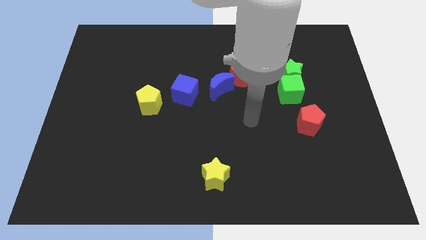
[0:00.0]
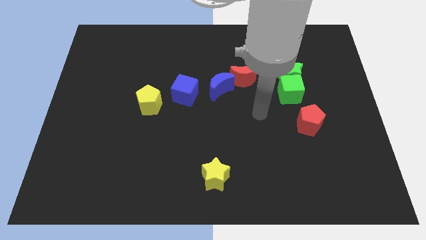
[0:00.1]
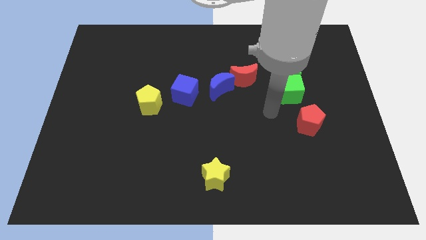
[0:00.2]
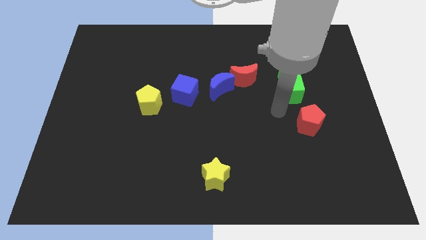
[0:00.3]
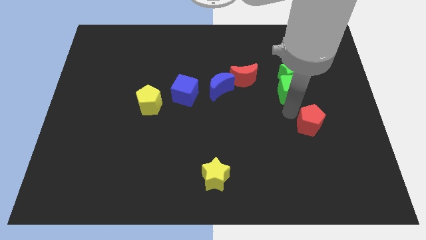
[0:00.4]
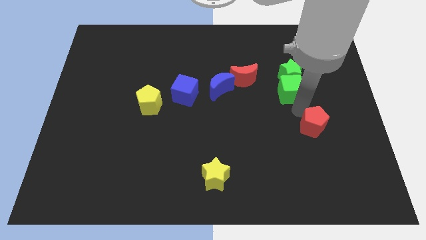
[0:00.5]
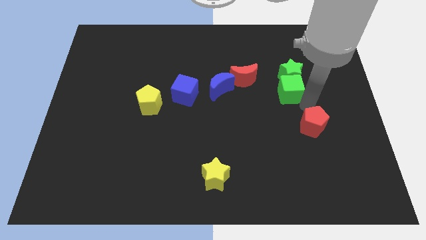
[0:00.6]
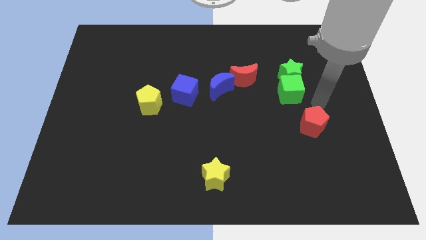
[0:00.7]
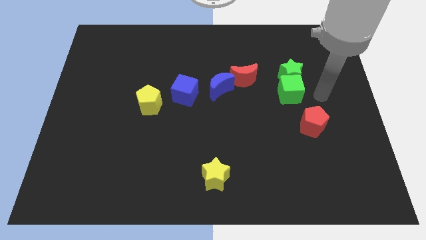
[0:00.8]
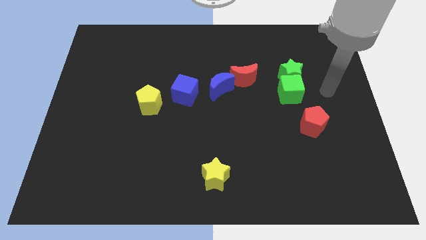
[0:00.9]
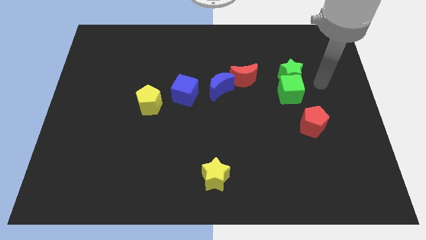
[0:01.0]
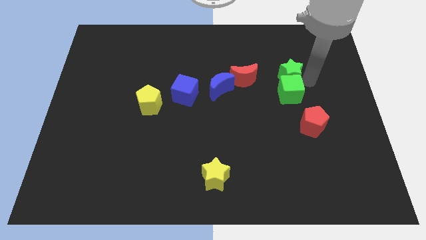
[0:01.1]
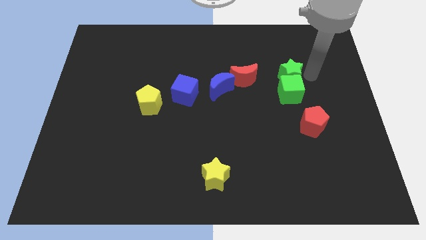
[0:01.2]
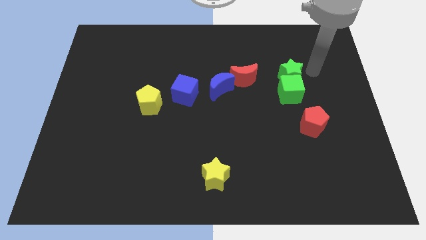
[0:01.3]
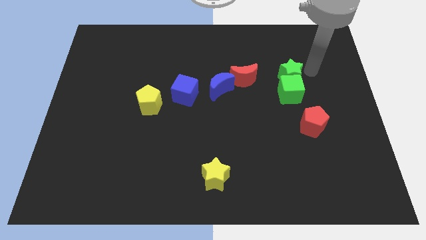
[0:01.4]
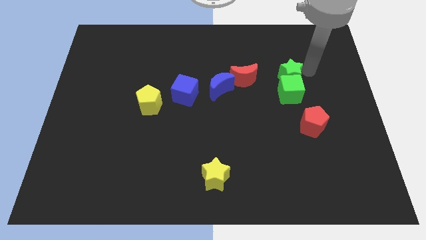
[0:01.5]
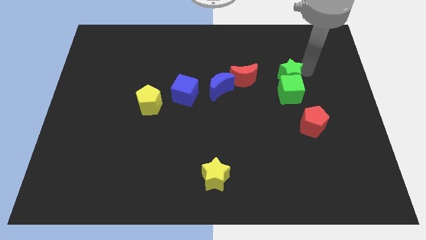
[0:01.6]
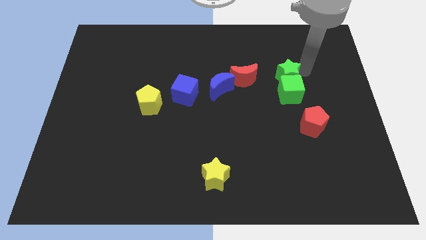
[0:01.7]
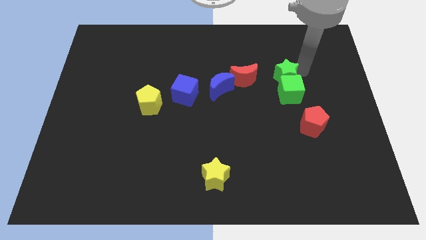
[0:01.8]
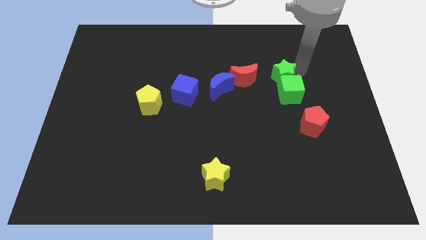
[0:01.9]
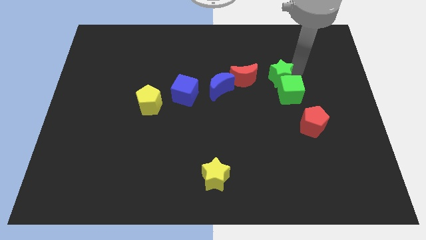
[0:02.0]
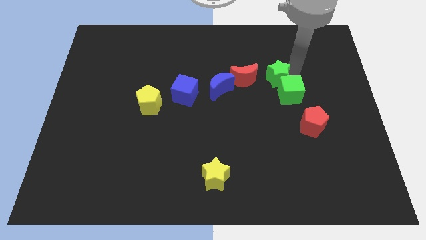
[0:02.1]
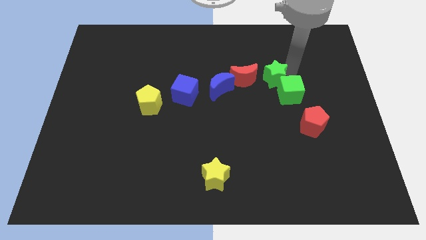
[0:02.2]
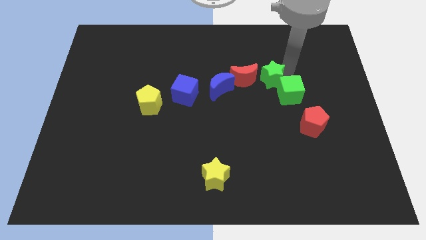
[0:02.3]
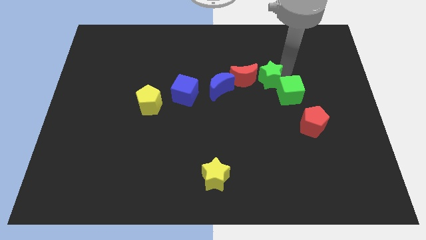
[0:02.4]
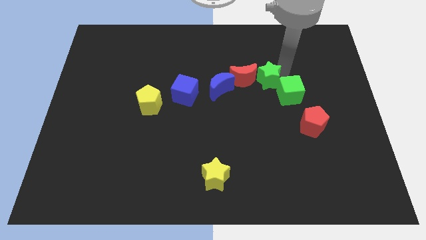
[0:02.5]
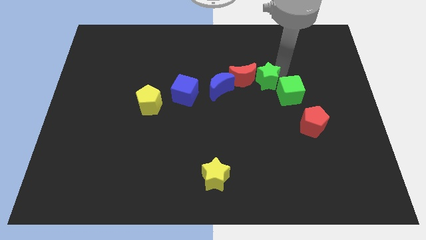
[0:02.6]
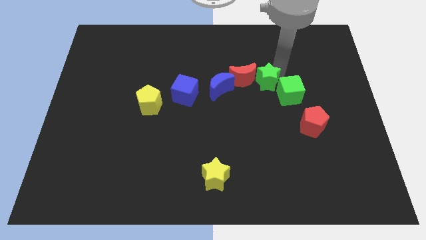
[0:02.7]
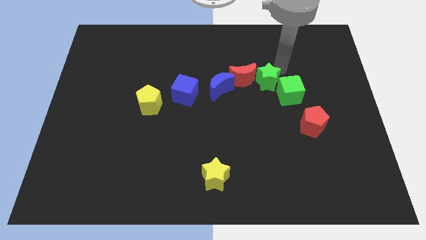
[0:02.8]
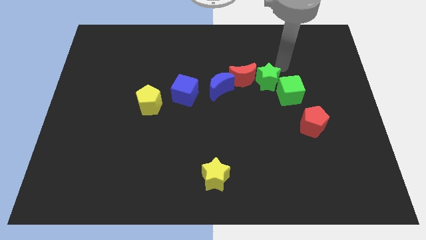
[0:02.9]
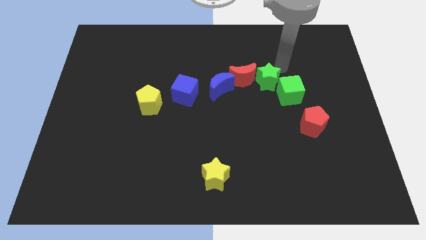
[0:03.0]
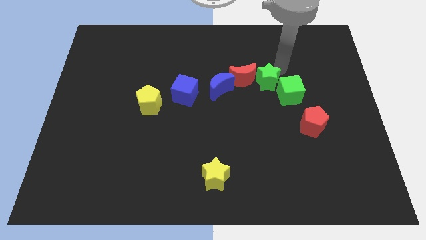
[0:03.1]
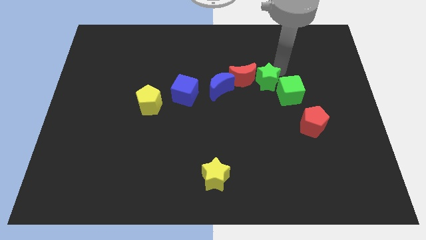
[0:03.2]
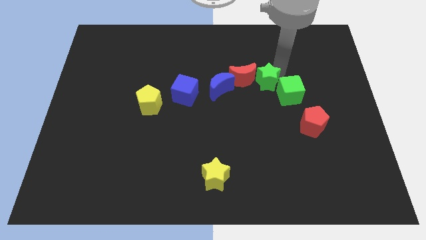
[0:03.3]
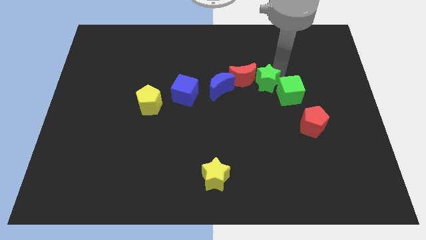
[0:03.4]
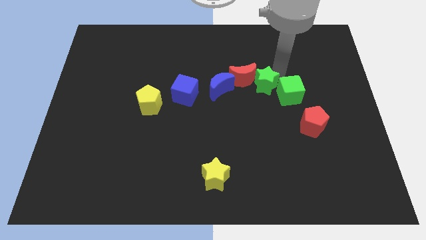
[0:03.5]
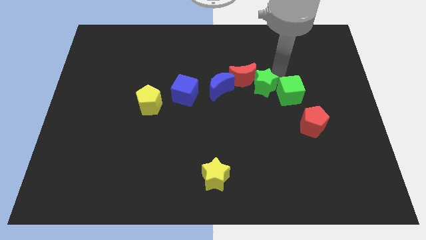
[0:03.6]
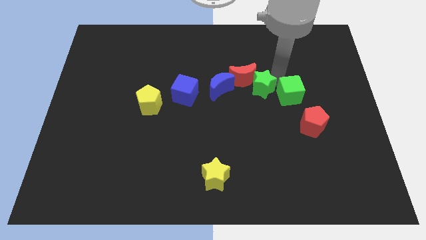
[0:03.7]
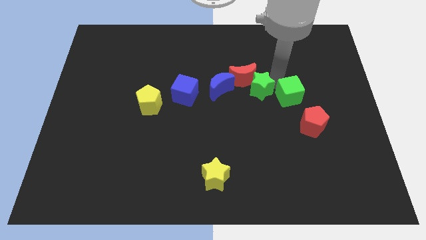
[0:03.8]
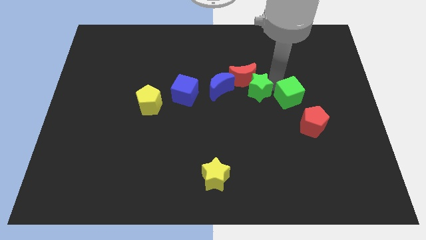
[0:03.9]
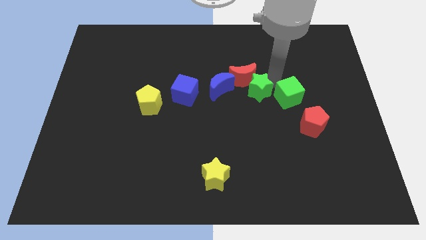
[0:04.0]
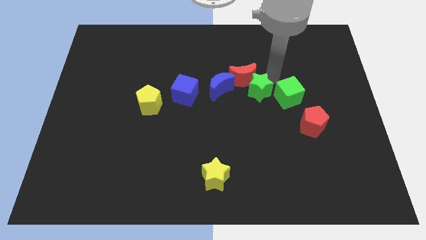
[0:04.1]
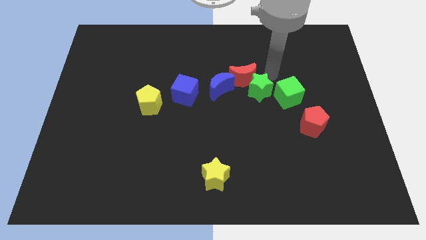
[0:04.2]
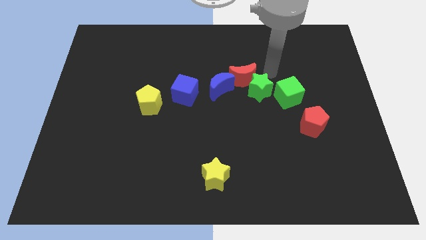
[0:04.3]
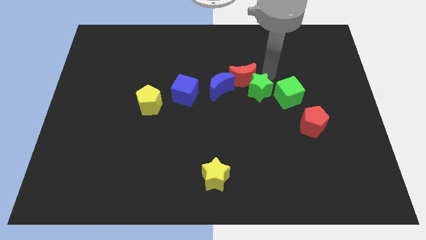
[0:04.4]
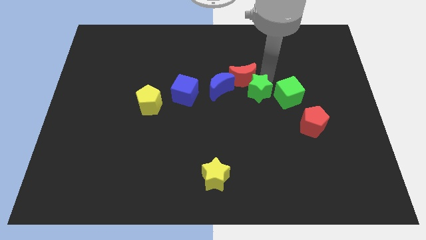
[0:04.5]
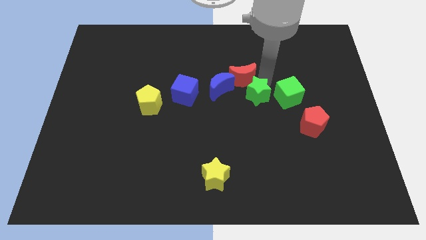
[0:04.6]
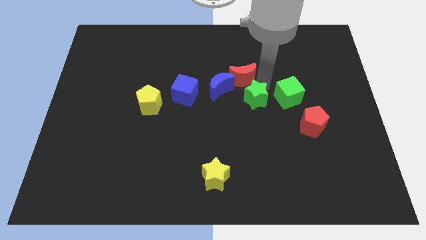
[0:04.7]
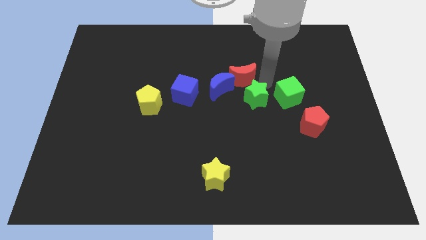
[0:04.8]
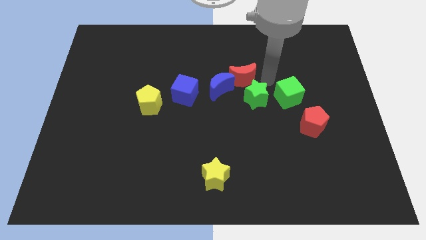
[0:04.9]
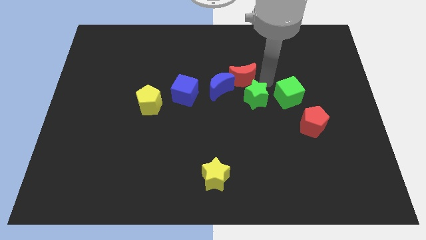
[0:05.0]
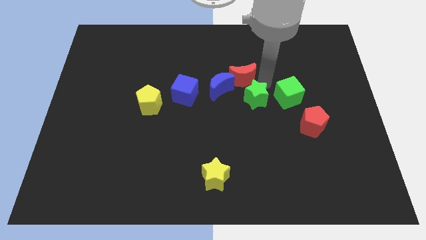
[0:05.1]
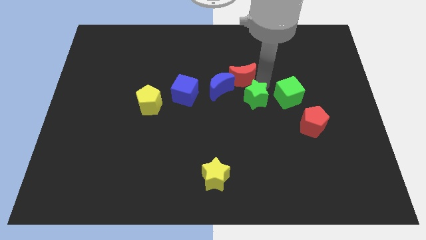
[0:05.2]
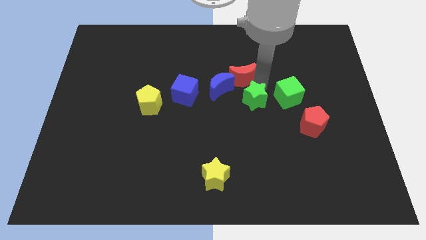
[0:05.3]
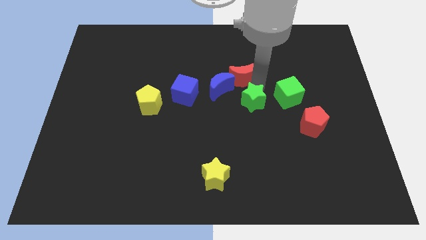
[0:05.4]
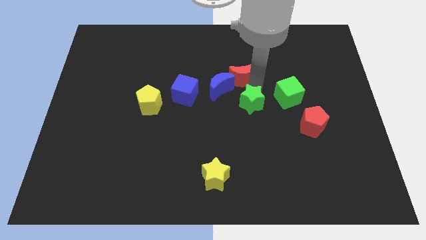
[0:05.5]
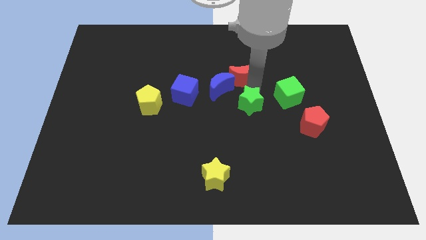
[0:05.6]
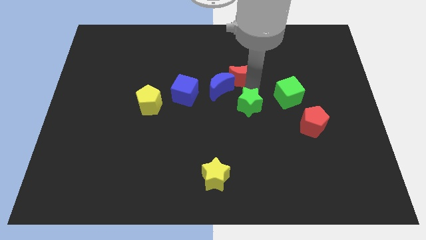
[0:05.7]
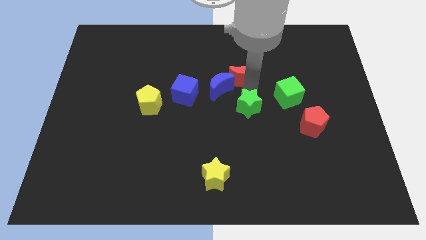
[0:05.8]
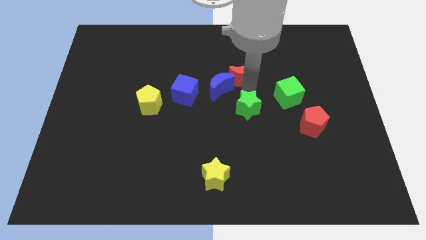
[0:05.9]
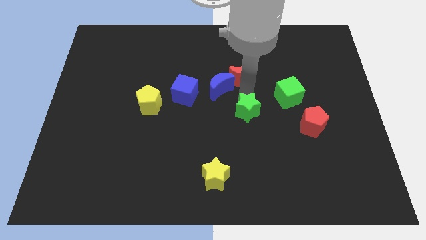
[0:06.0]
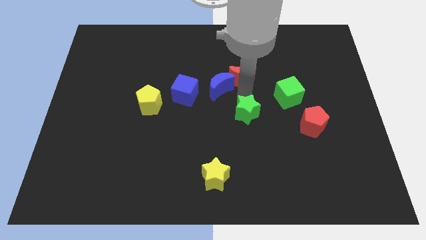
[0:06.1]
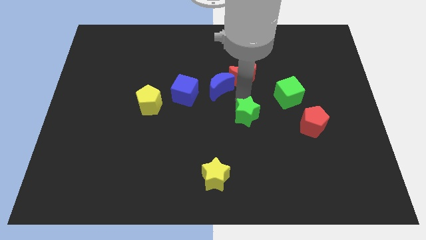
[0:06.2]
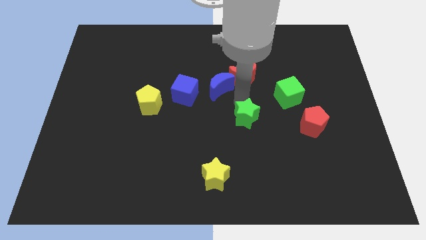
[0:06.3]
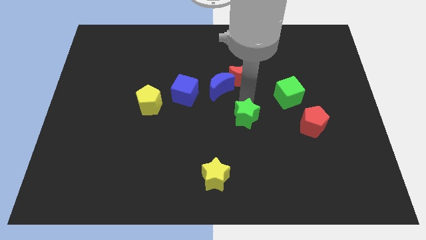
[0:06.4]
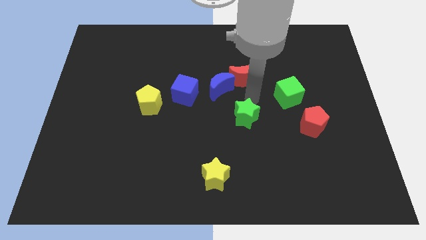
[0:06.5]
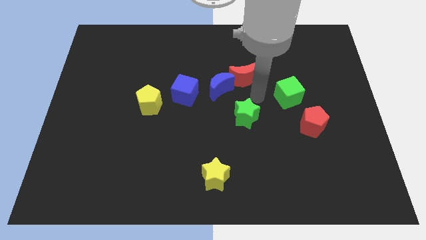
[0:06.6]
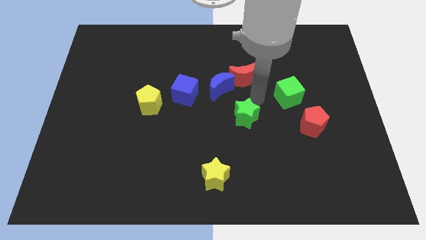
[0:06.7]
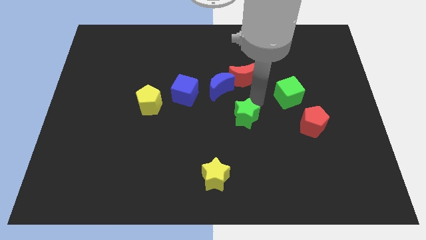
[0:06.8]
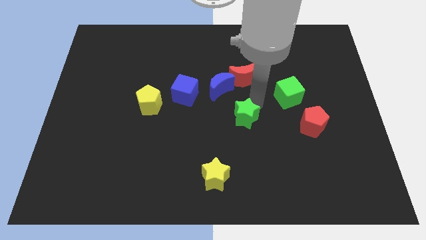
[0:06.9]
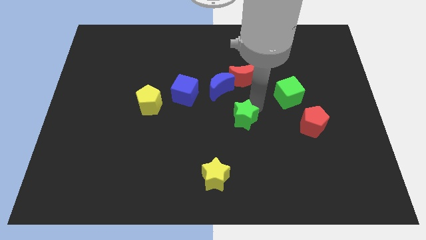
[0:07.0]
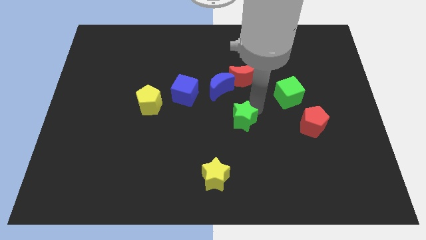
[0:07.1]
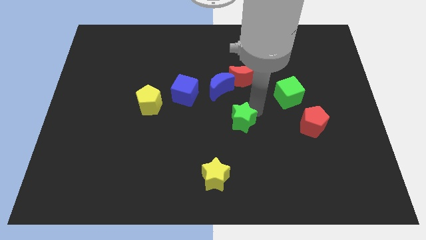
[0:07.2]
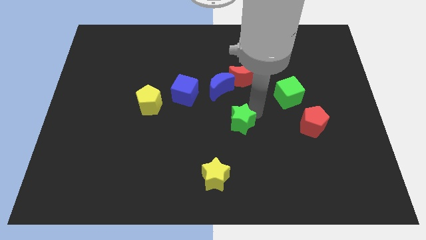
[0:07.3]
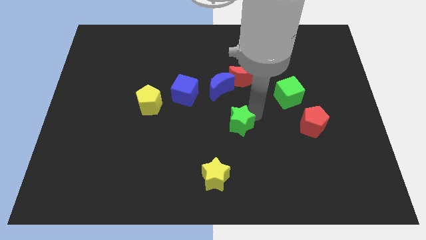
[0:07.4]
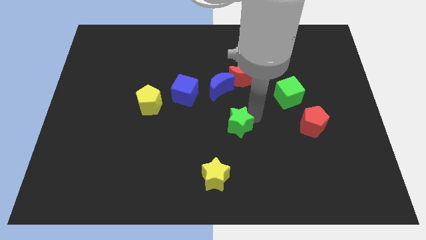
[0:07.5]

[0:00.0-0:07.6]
push the green star down and to the left diagonally

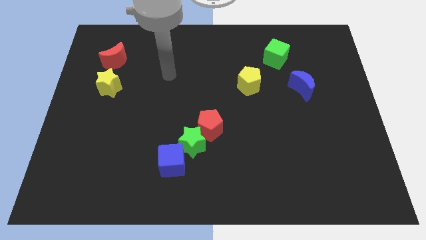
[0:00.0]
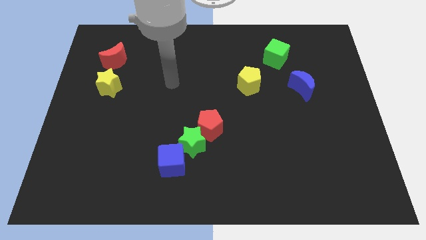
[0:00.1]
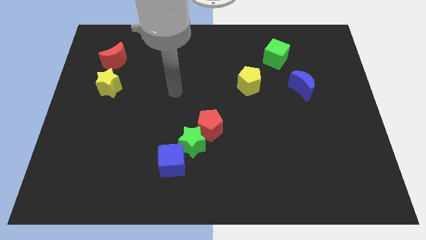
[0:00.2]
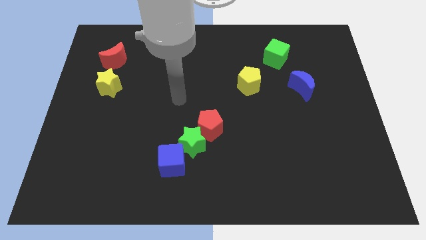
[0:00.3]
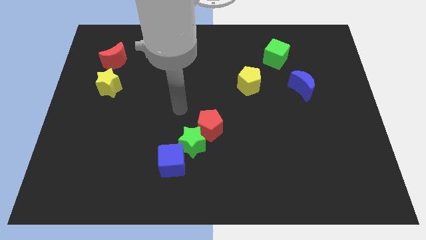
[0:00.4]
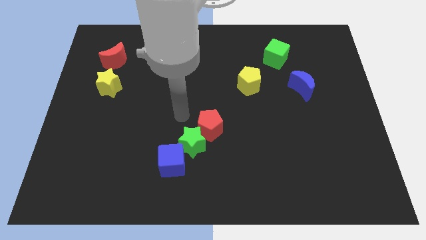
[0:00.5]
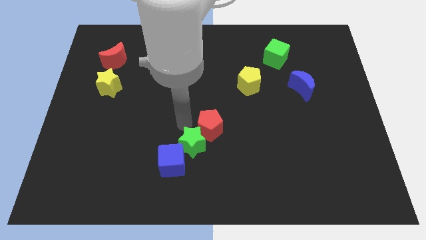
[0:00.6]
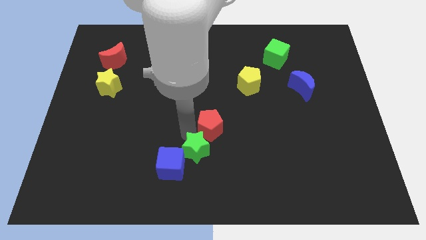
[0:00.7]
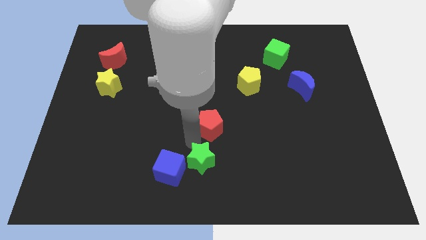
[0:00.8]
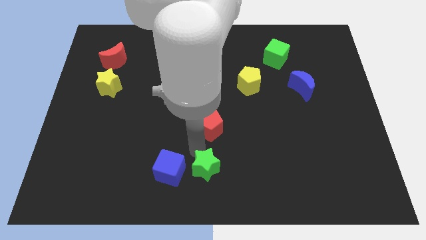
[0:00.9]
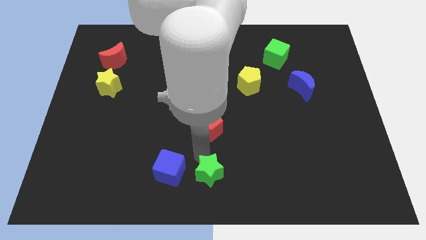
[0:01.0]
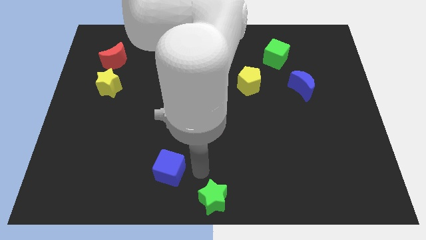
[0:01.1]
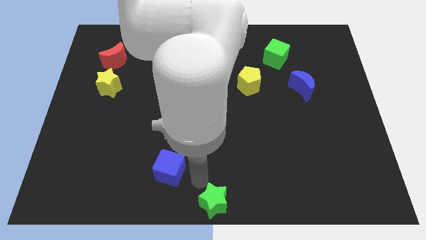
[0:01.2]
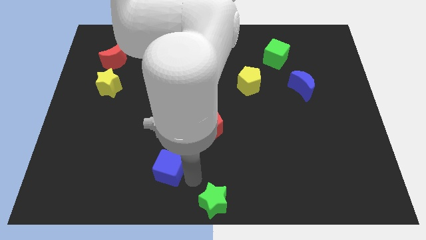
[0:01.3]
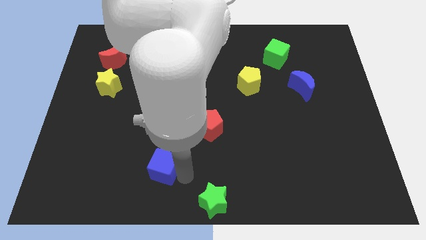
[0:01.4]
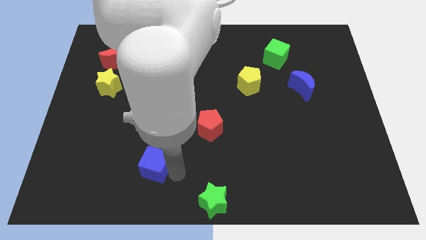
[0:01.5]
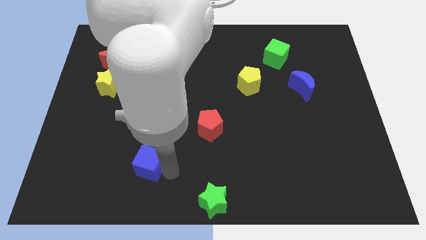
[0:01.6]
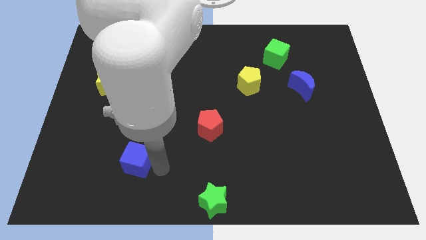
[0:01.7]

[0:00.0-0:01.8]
move the blue cube left somewhat
